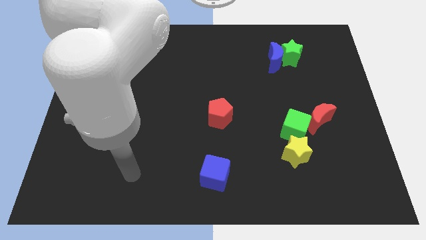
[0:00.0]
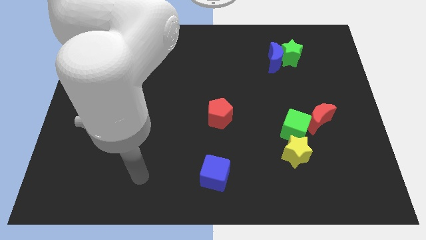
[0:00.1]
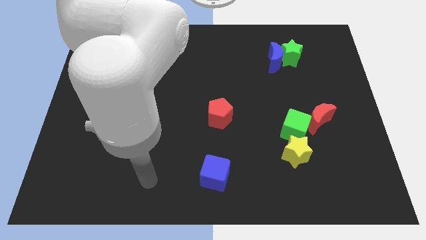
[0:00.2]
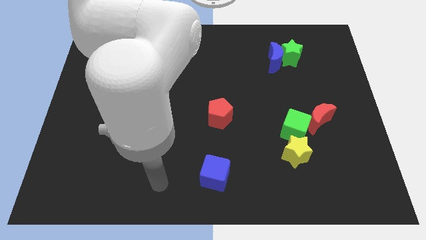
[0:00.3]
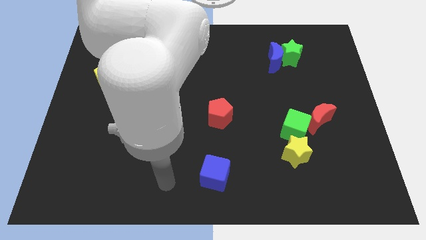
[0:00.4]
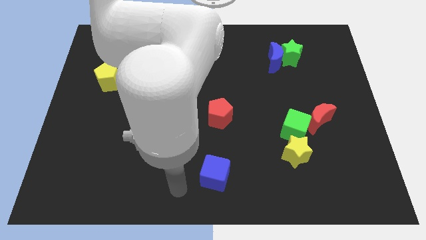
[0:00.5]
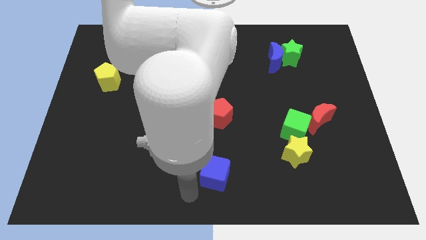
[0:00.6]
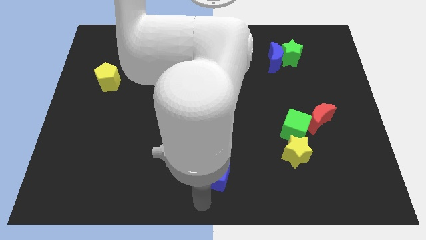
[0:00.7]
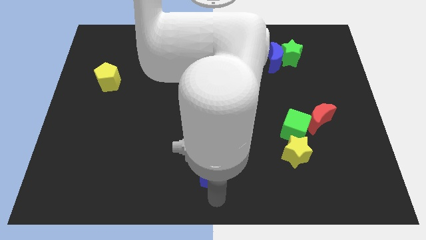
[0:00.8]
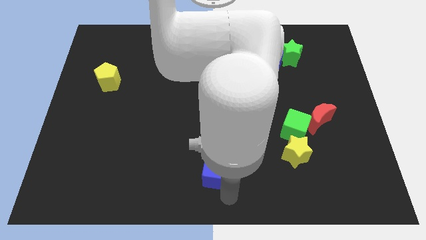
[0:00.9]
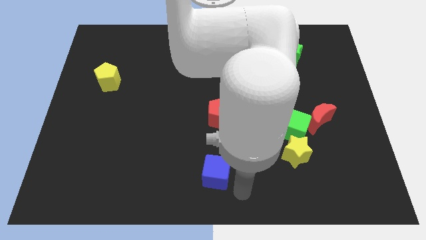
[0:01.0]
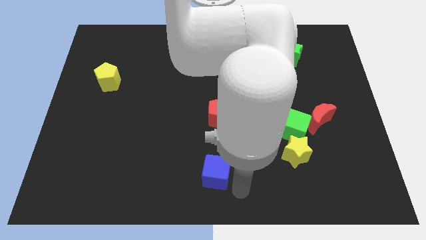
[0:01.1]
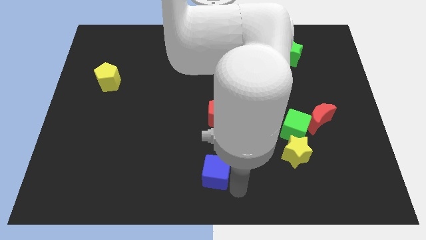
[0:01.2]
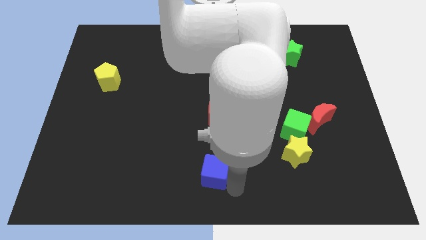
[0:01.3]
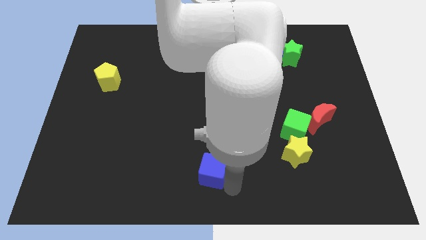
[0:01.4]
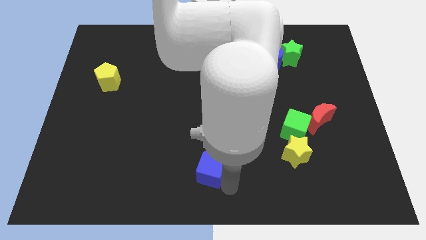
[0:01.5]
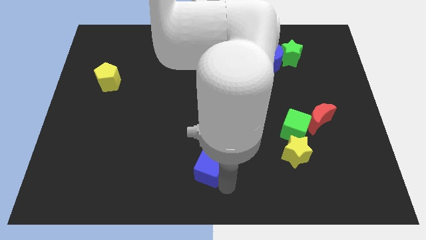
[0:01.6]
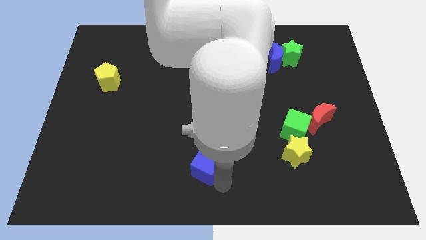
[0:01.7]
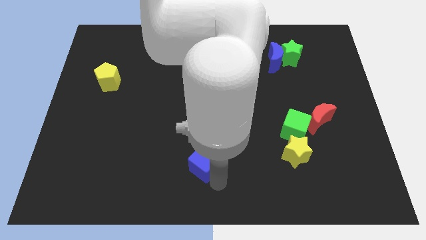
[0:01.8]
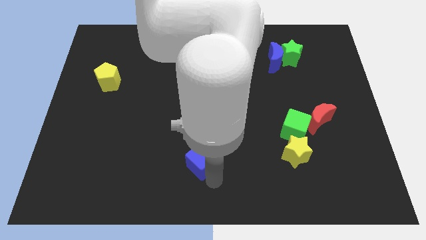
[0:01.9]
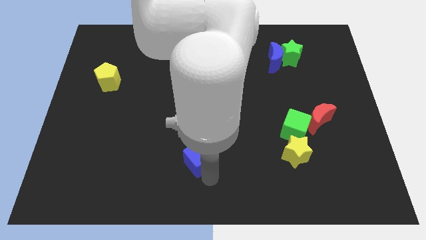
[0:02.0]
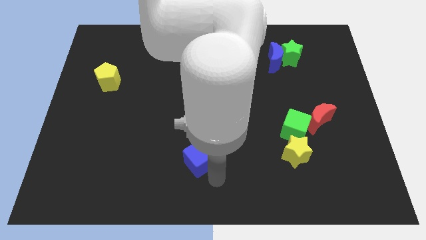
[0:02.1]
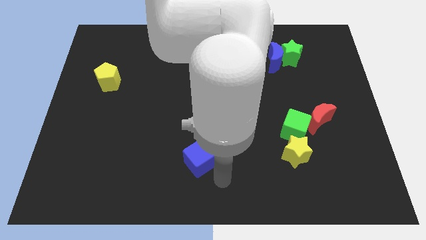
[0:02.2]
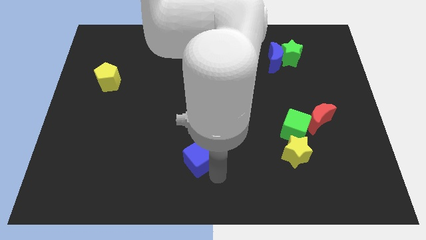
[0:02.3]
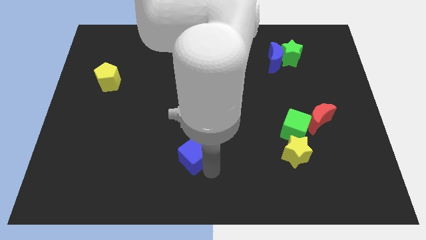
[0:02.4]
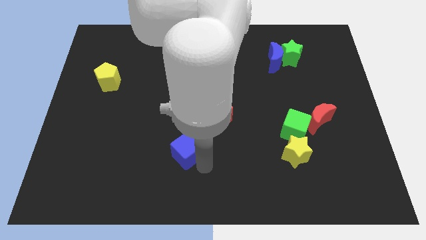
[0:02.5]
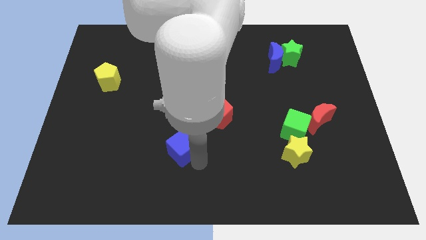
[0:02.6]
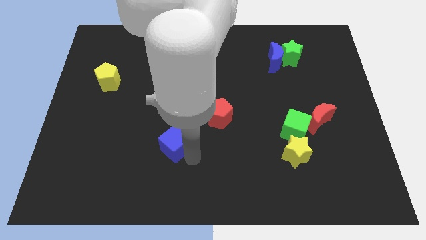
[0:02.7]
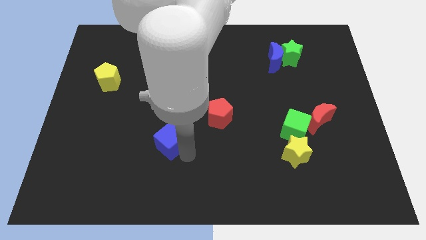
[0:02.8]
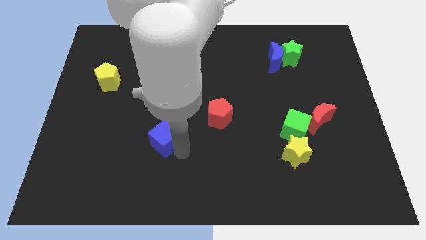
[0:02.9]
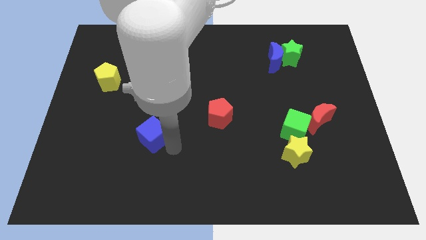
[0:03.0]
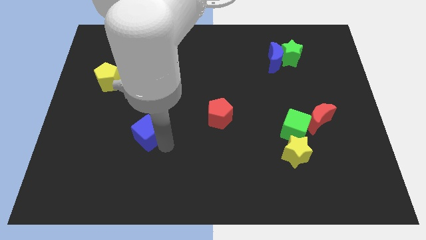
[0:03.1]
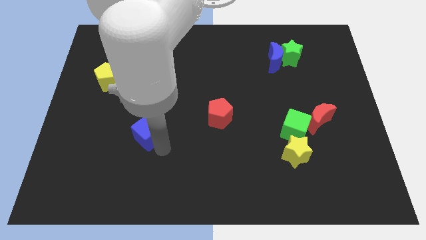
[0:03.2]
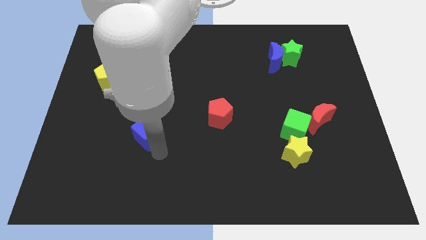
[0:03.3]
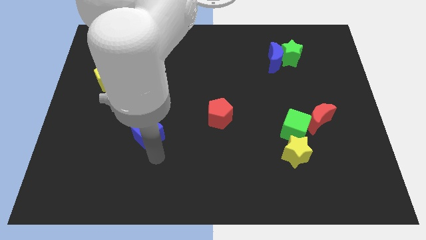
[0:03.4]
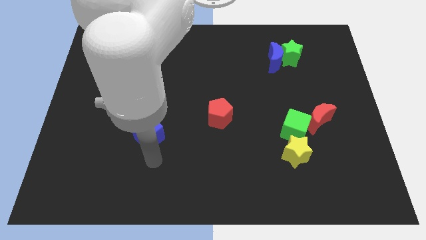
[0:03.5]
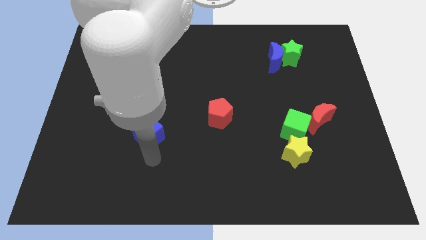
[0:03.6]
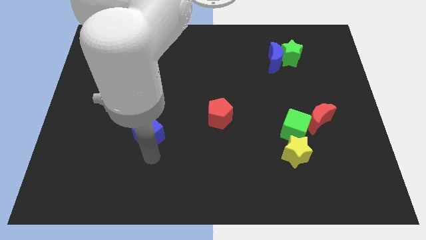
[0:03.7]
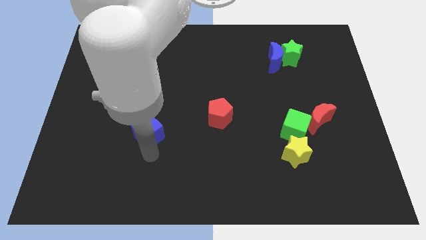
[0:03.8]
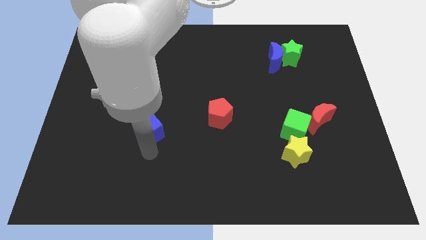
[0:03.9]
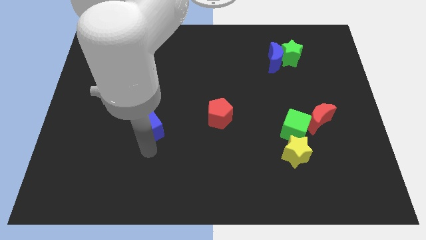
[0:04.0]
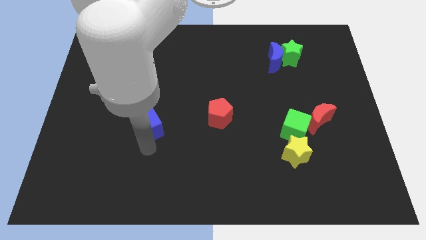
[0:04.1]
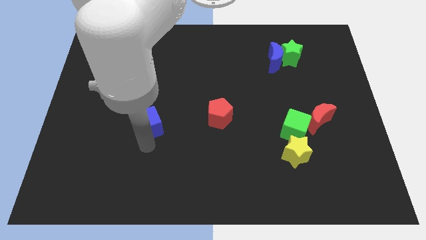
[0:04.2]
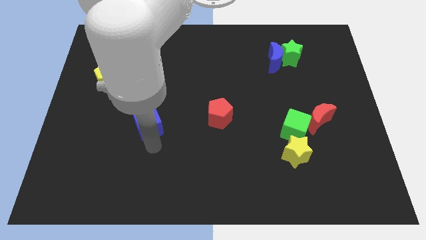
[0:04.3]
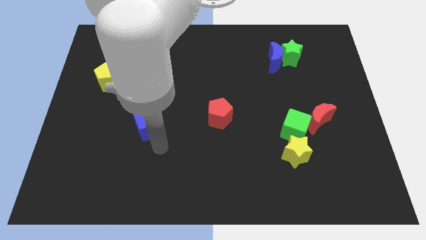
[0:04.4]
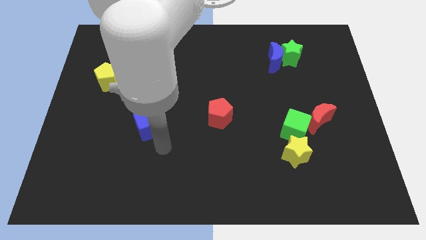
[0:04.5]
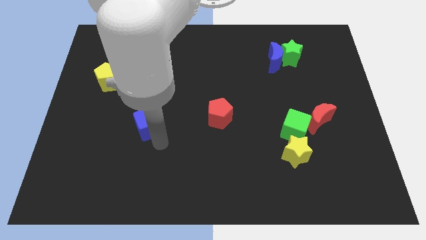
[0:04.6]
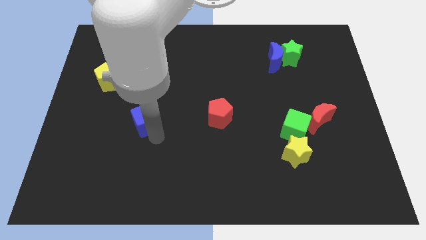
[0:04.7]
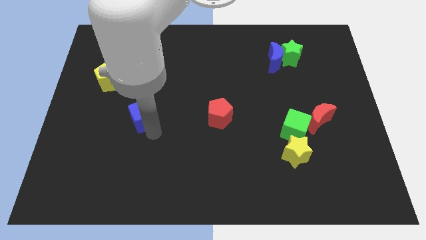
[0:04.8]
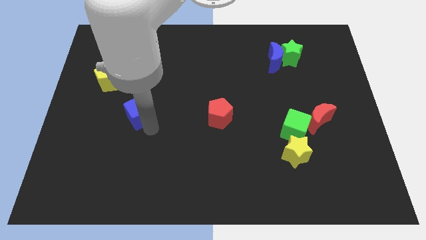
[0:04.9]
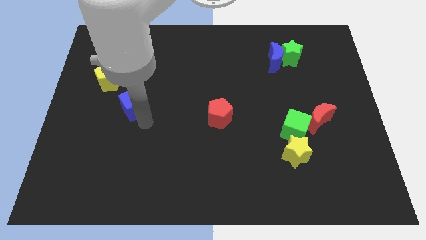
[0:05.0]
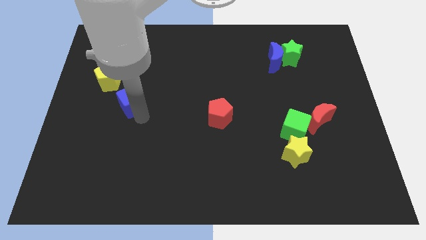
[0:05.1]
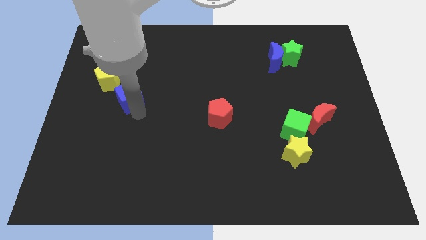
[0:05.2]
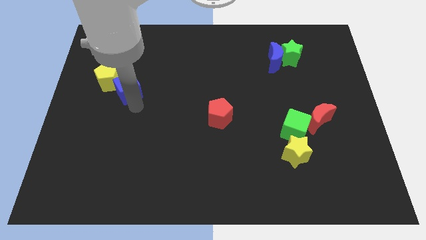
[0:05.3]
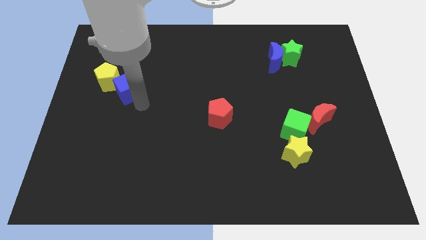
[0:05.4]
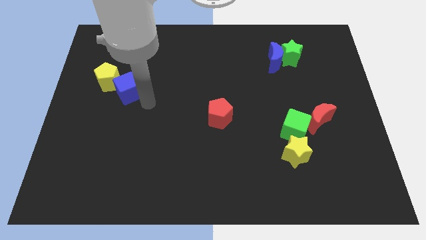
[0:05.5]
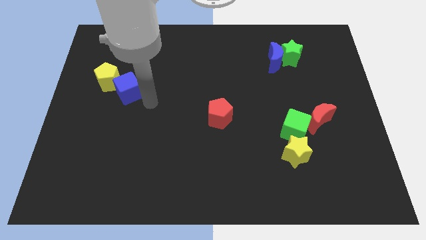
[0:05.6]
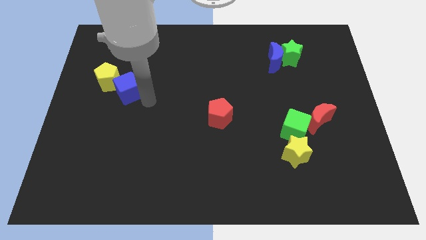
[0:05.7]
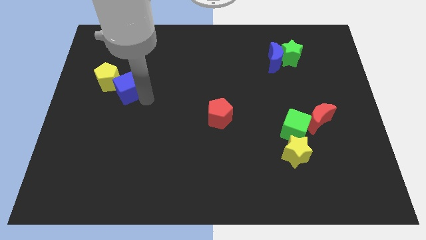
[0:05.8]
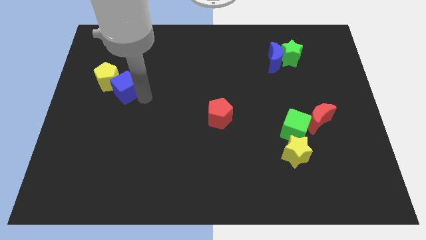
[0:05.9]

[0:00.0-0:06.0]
push the blue cube next to the yellow pentagon

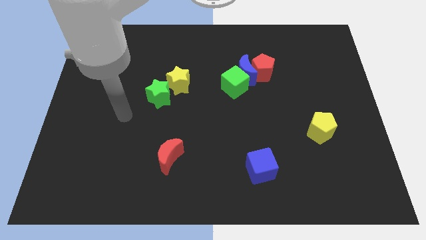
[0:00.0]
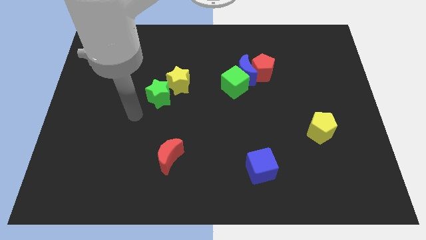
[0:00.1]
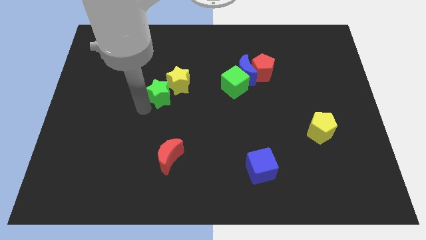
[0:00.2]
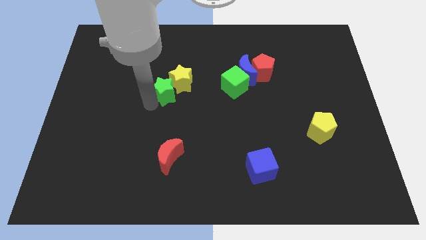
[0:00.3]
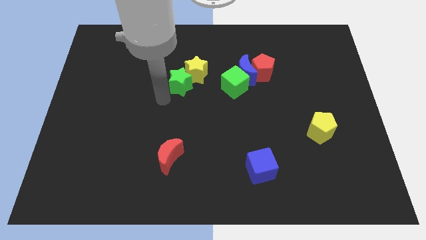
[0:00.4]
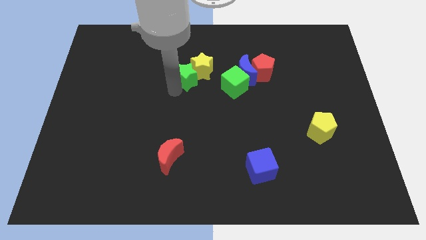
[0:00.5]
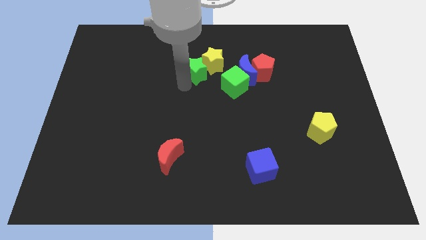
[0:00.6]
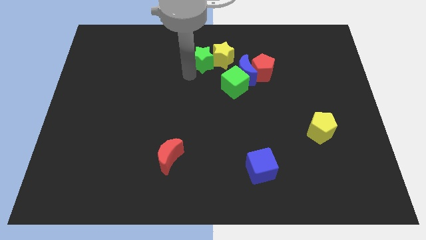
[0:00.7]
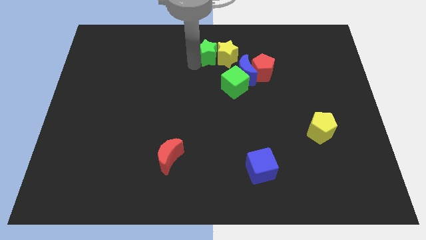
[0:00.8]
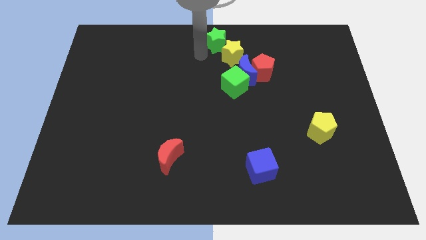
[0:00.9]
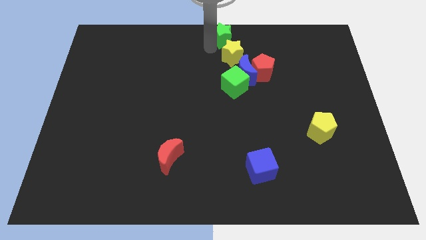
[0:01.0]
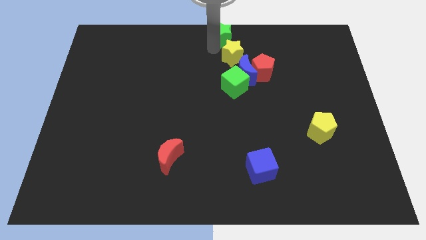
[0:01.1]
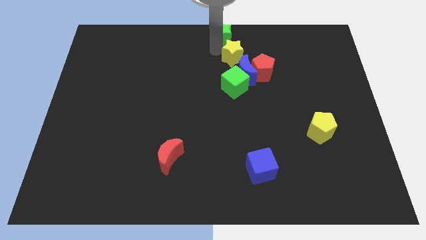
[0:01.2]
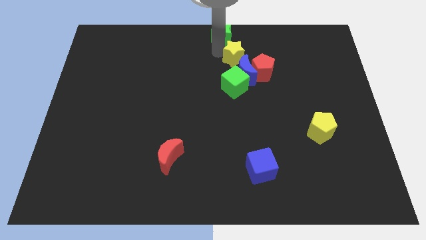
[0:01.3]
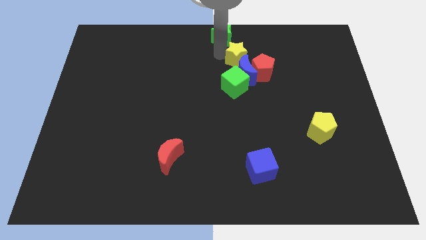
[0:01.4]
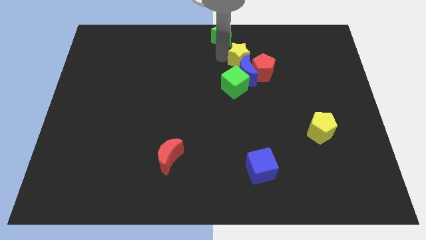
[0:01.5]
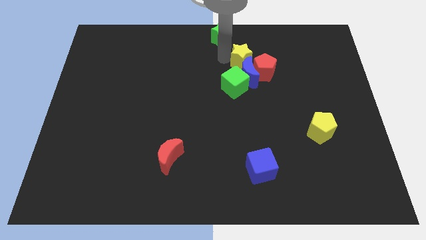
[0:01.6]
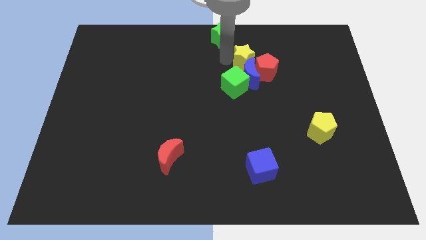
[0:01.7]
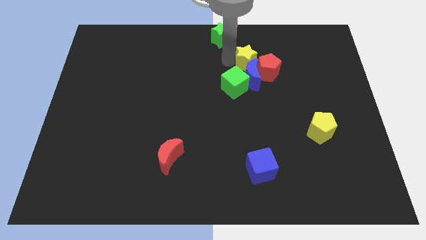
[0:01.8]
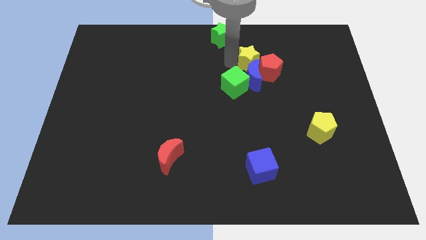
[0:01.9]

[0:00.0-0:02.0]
push the yellow star to the red pentagon
